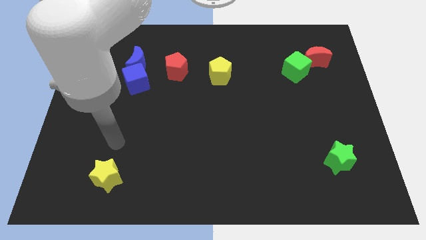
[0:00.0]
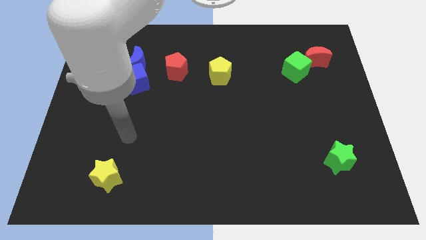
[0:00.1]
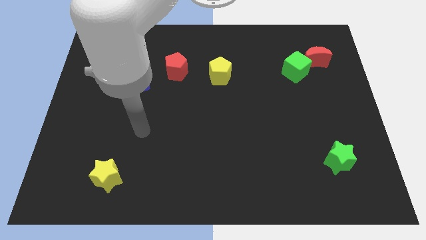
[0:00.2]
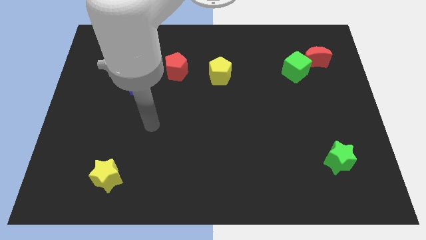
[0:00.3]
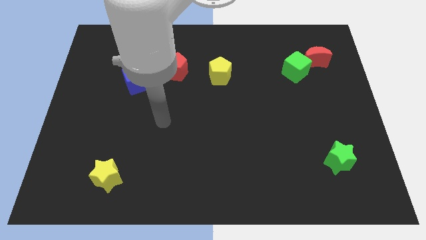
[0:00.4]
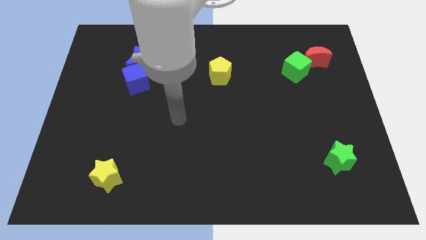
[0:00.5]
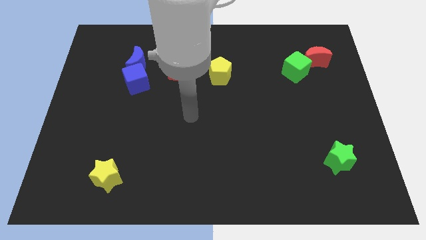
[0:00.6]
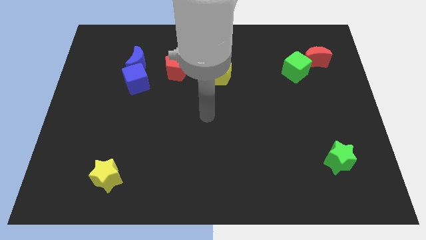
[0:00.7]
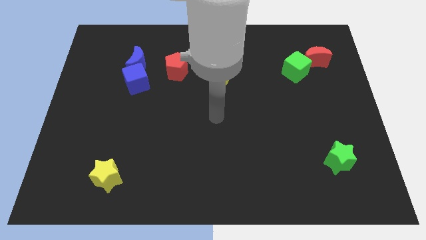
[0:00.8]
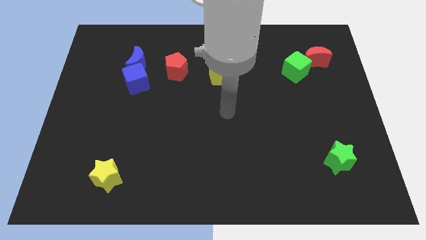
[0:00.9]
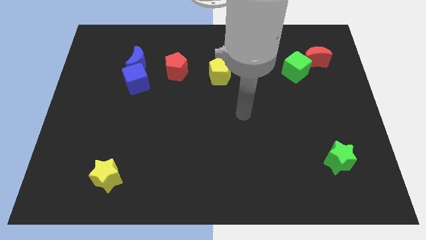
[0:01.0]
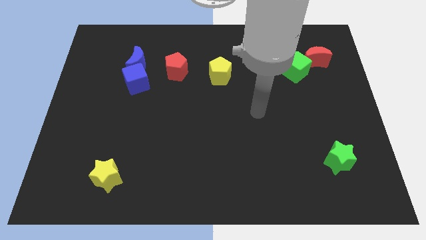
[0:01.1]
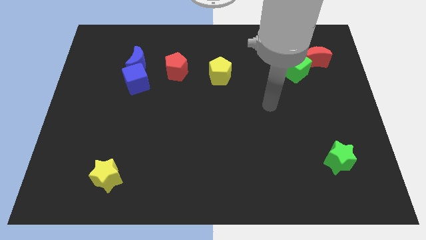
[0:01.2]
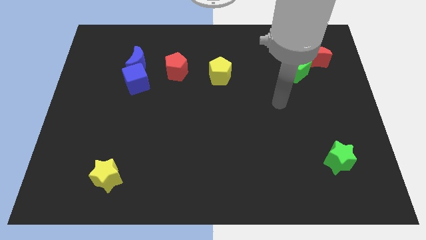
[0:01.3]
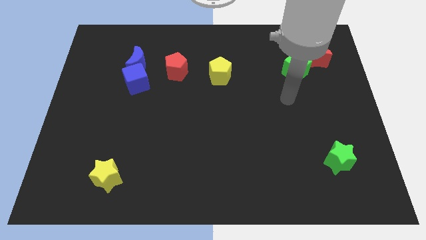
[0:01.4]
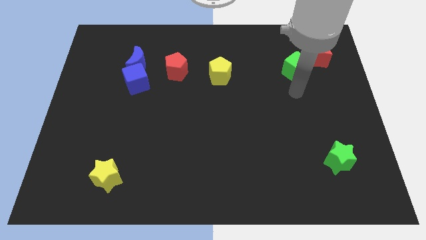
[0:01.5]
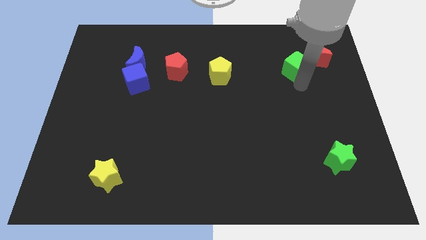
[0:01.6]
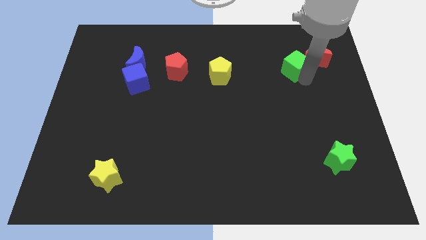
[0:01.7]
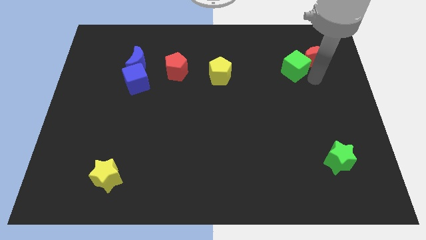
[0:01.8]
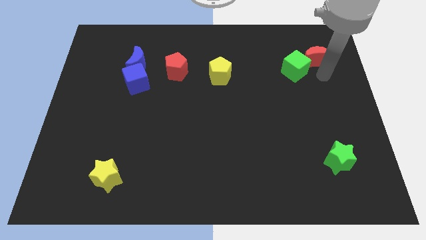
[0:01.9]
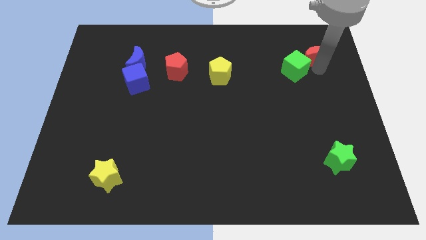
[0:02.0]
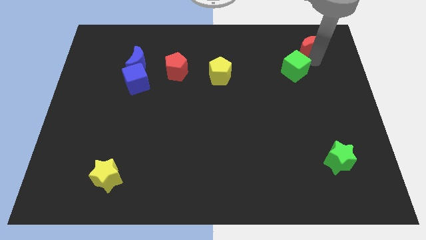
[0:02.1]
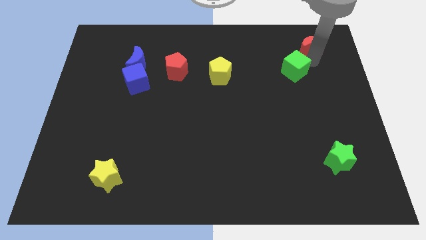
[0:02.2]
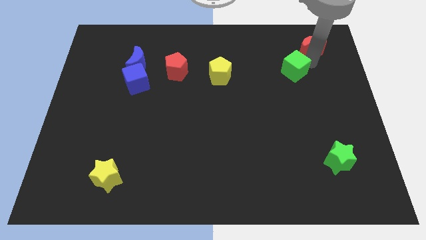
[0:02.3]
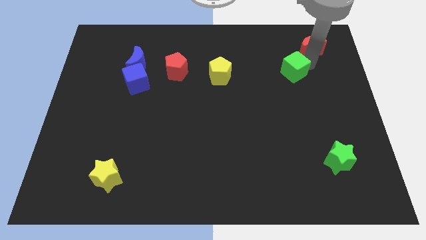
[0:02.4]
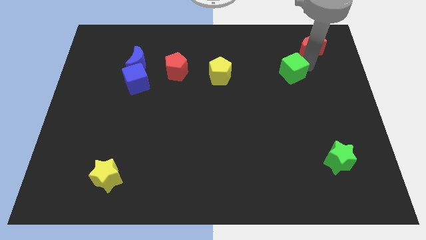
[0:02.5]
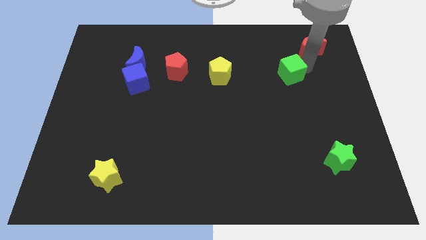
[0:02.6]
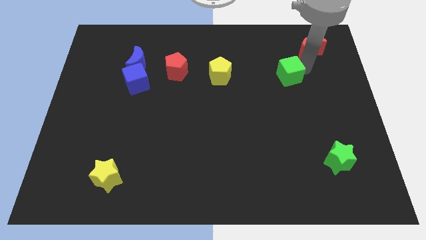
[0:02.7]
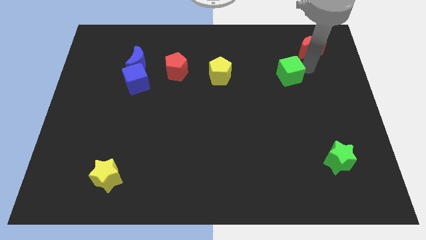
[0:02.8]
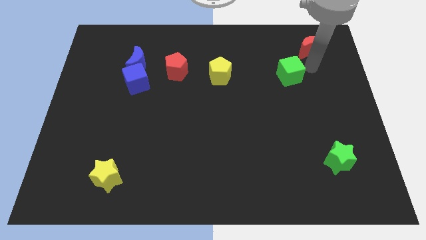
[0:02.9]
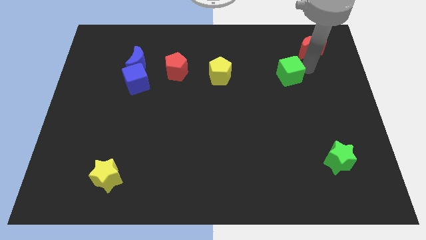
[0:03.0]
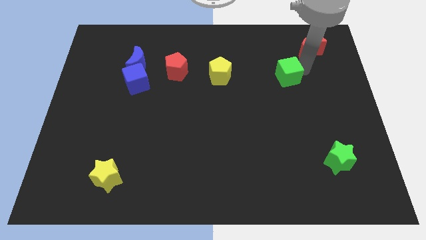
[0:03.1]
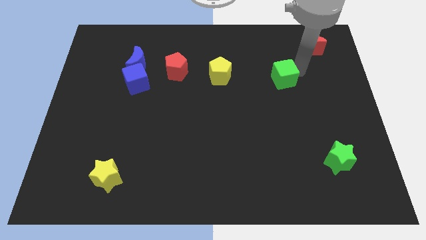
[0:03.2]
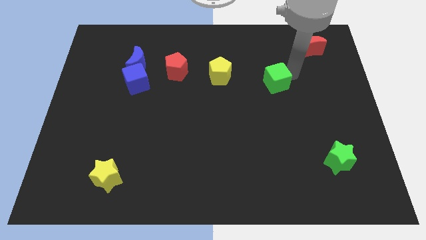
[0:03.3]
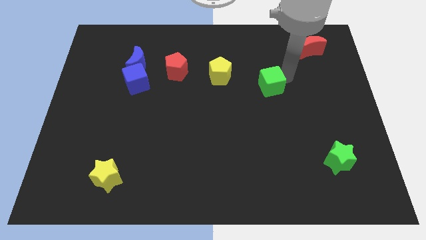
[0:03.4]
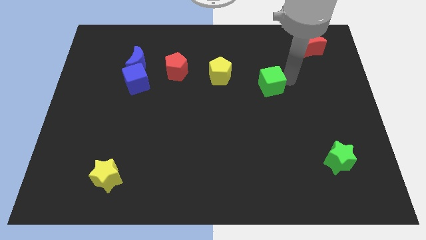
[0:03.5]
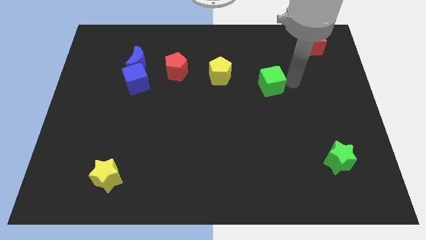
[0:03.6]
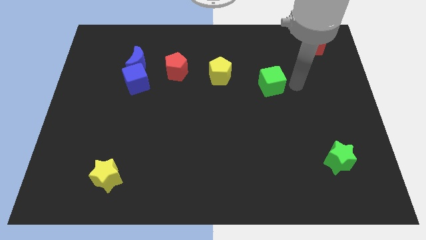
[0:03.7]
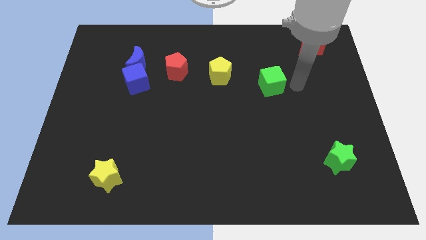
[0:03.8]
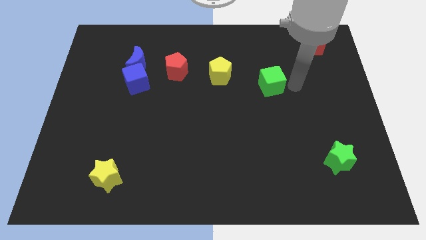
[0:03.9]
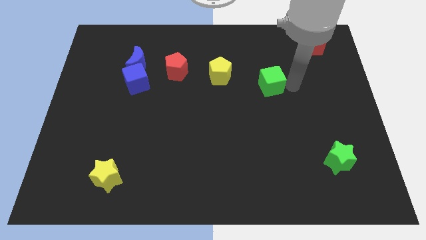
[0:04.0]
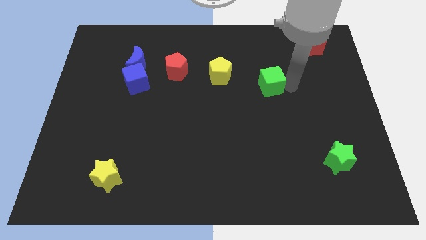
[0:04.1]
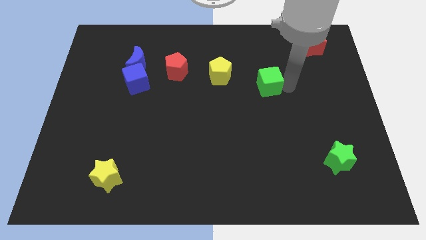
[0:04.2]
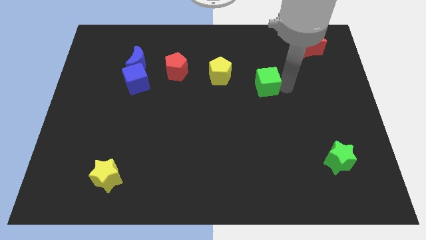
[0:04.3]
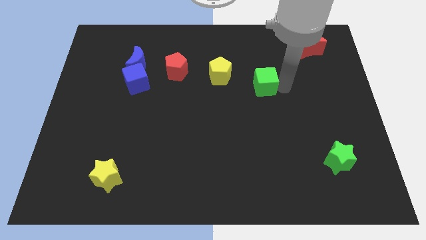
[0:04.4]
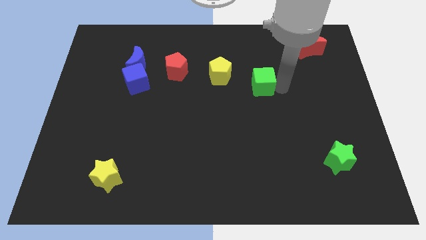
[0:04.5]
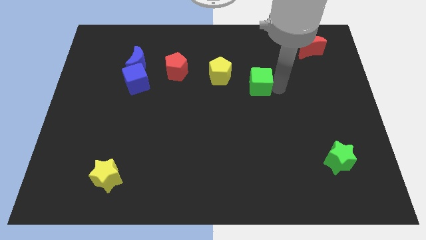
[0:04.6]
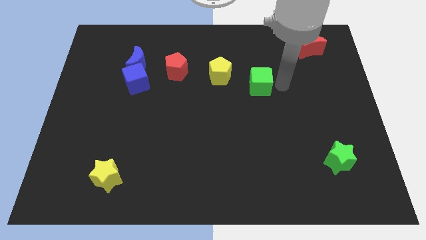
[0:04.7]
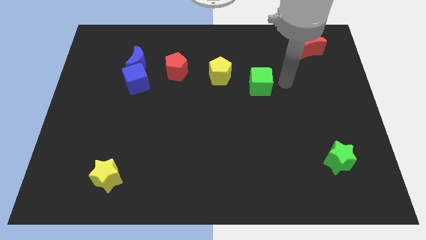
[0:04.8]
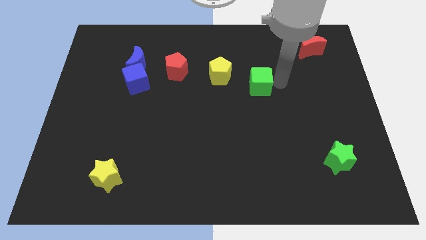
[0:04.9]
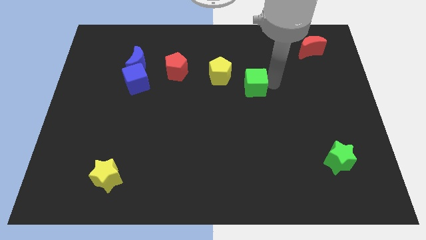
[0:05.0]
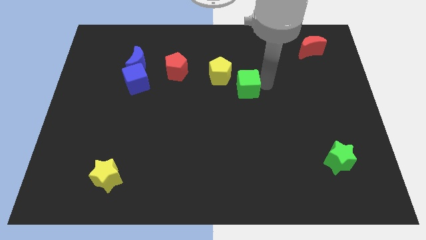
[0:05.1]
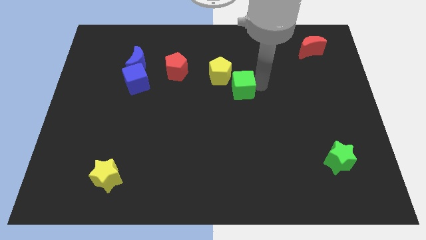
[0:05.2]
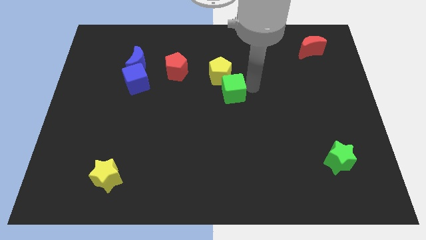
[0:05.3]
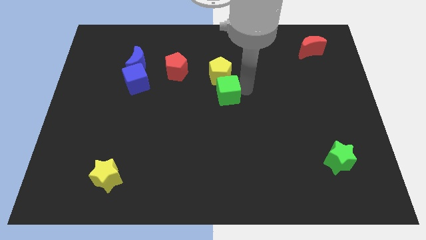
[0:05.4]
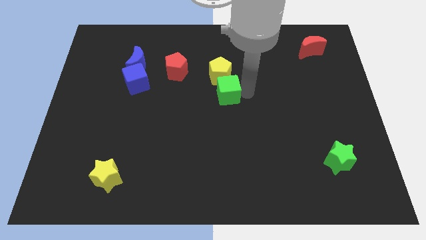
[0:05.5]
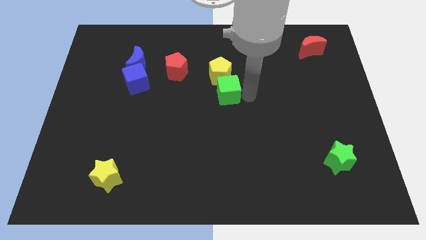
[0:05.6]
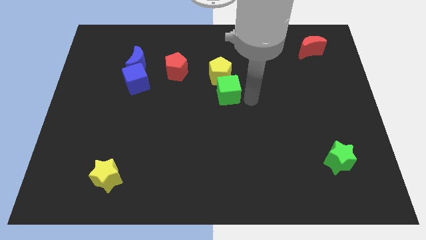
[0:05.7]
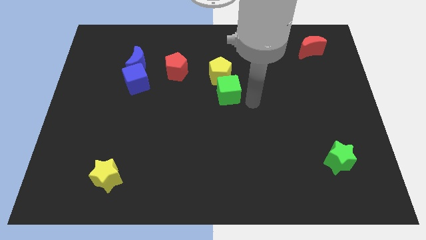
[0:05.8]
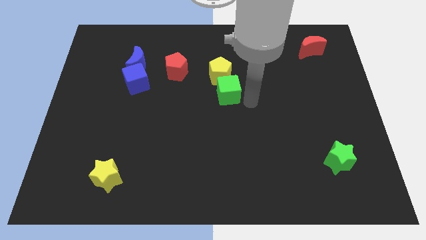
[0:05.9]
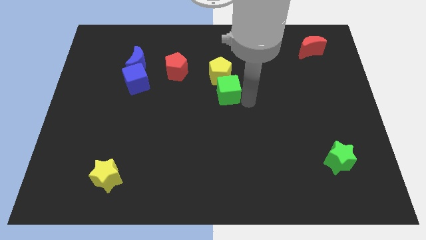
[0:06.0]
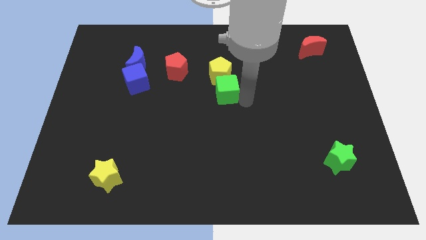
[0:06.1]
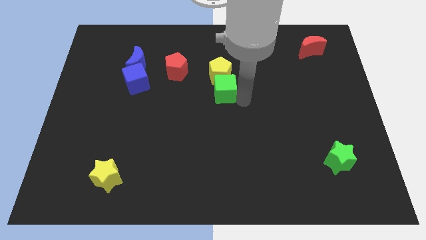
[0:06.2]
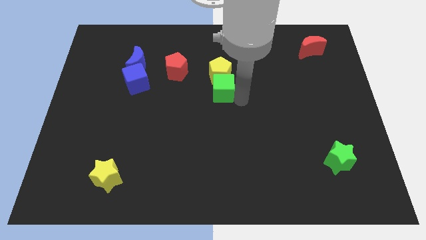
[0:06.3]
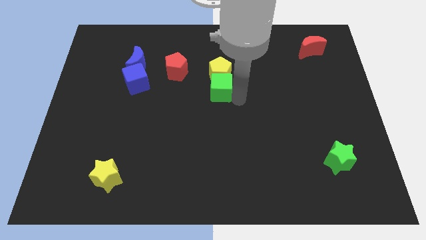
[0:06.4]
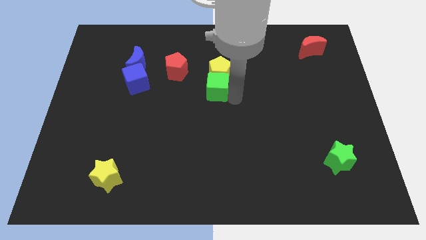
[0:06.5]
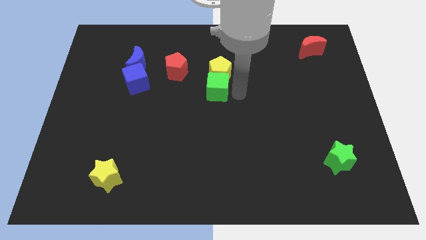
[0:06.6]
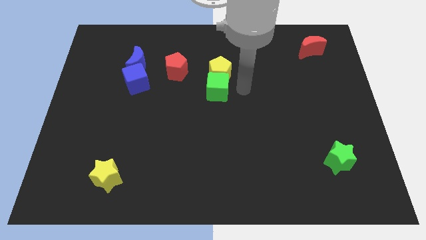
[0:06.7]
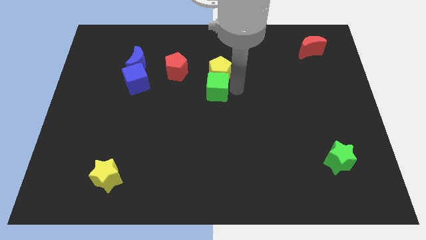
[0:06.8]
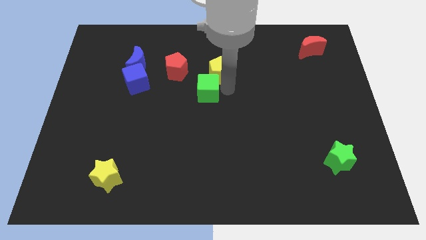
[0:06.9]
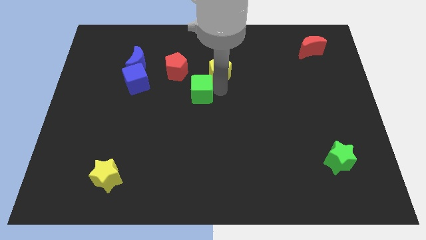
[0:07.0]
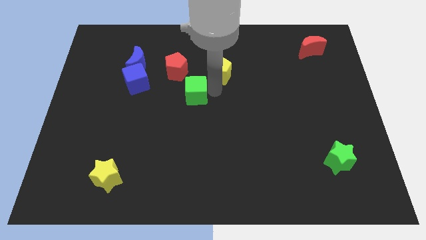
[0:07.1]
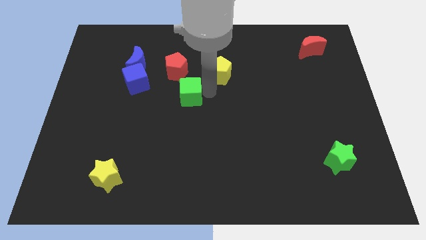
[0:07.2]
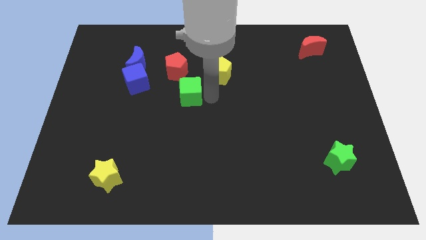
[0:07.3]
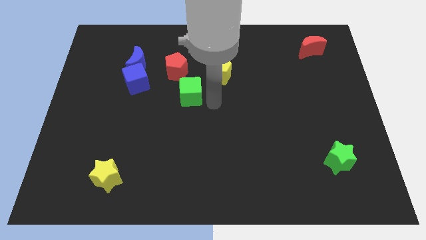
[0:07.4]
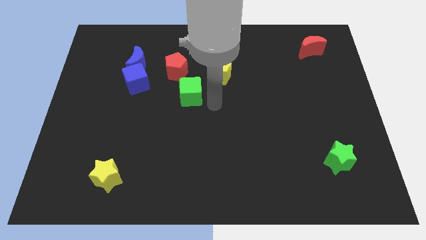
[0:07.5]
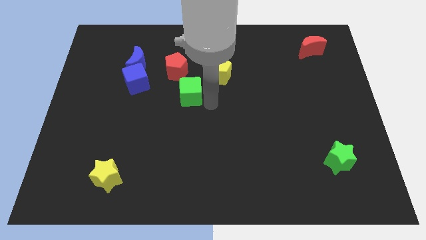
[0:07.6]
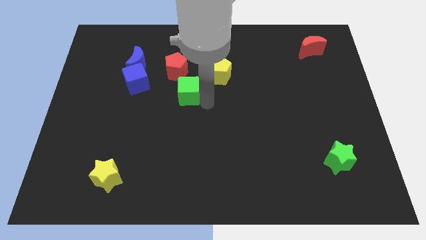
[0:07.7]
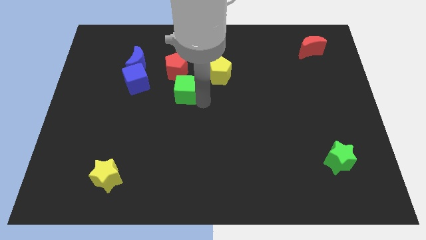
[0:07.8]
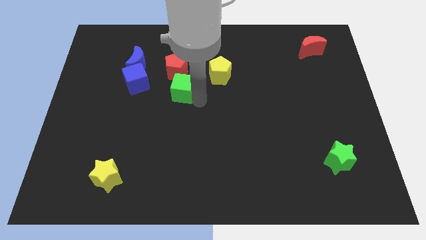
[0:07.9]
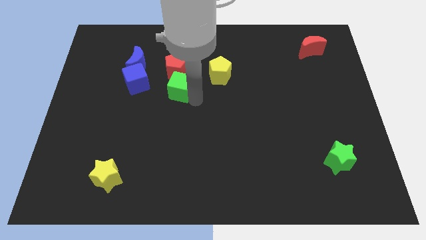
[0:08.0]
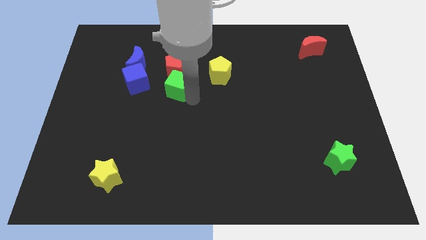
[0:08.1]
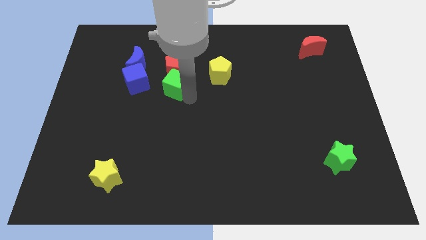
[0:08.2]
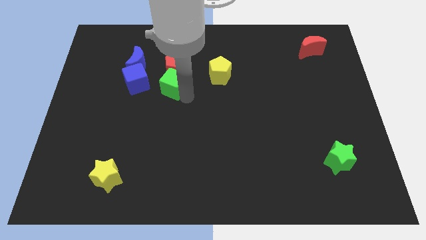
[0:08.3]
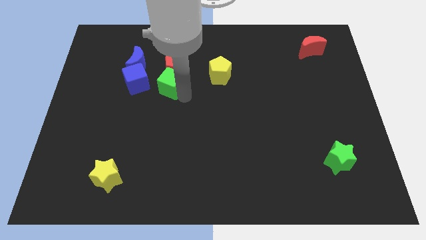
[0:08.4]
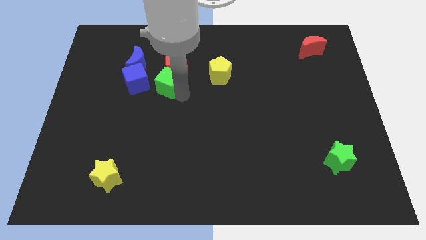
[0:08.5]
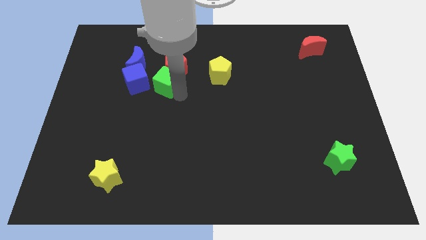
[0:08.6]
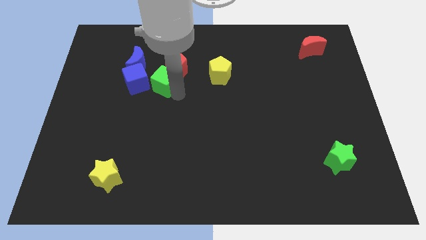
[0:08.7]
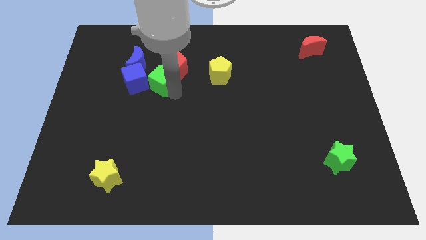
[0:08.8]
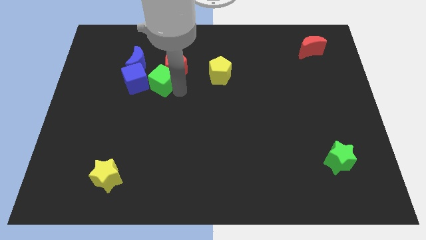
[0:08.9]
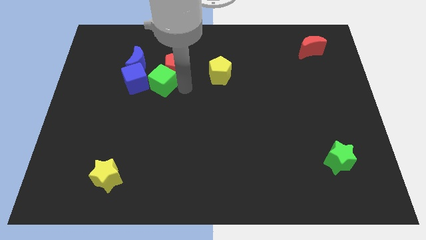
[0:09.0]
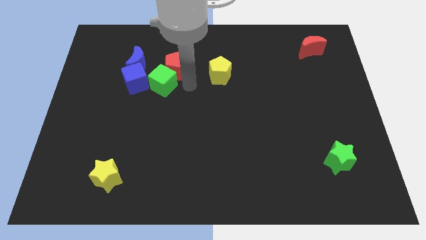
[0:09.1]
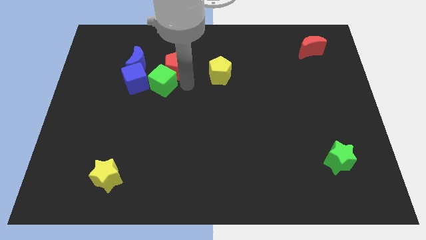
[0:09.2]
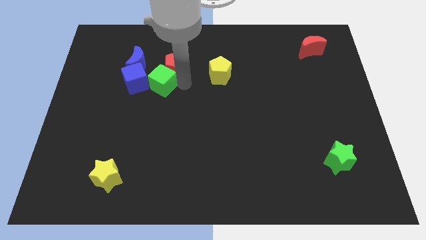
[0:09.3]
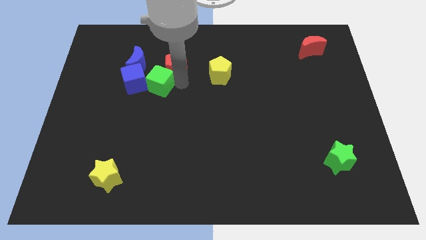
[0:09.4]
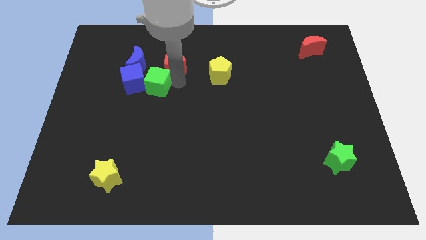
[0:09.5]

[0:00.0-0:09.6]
move the green cube close to the blue cube
